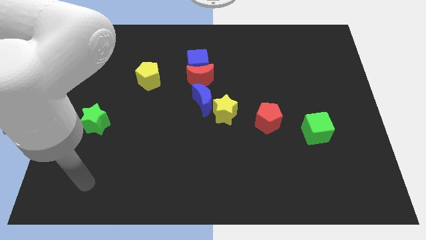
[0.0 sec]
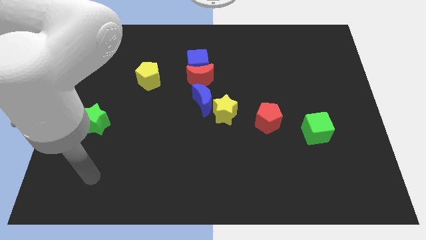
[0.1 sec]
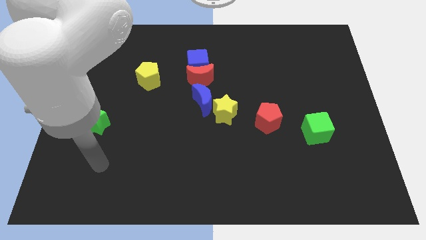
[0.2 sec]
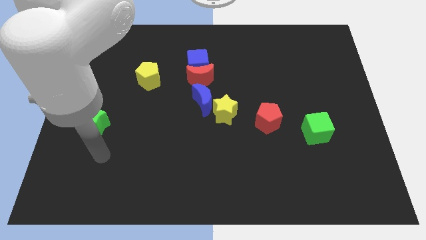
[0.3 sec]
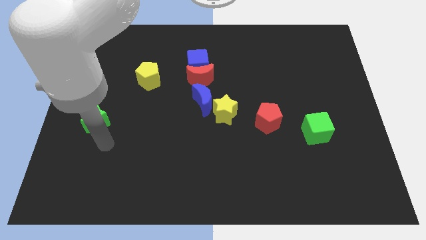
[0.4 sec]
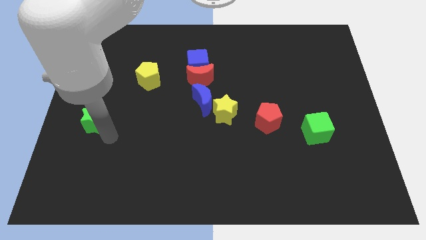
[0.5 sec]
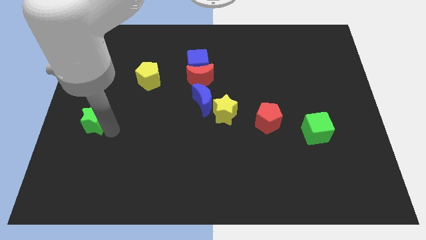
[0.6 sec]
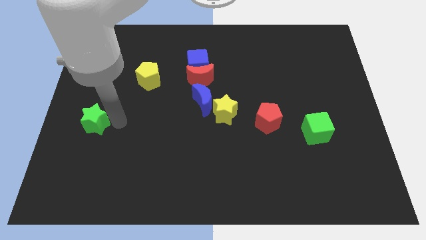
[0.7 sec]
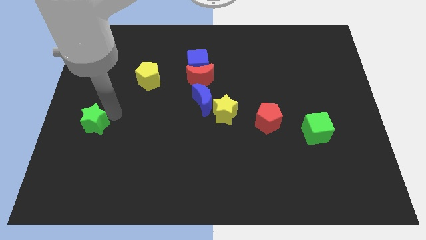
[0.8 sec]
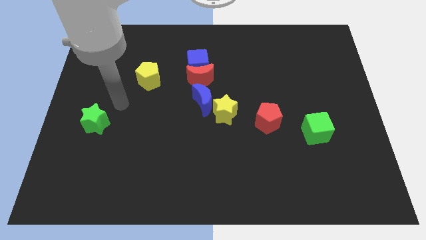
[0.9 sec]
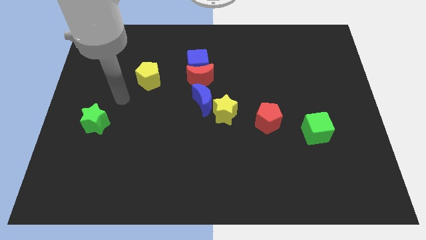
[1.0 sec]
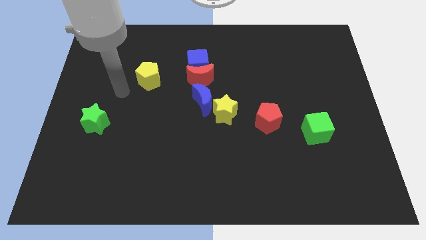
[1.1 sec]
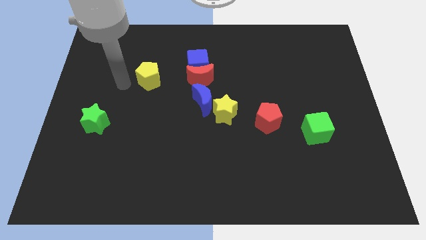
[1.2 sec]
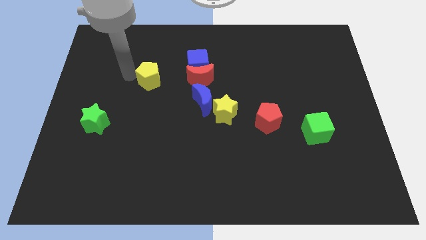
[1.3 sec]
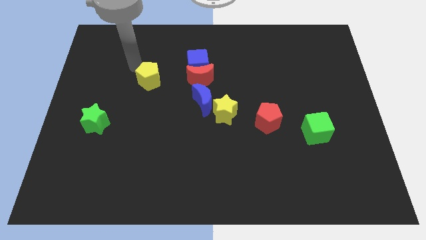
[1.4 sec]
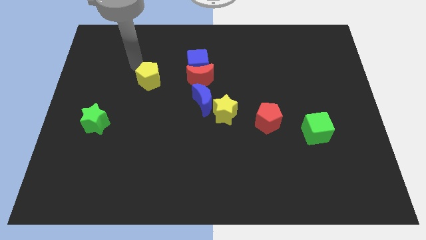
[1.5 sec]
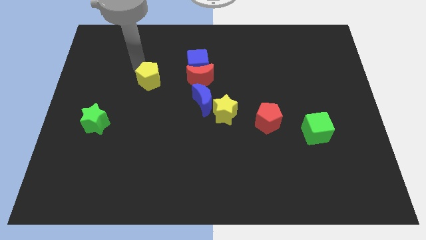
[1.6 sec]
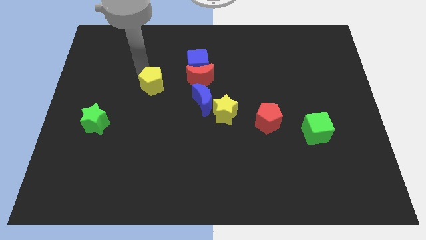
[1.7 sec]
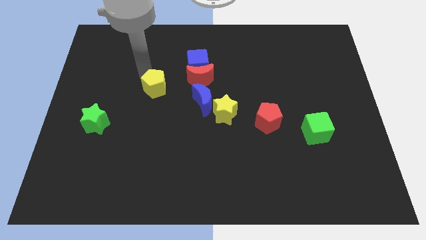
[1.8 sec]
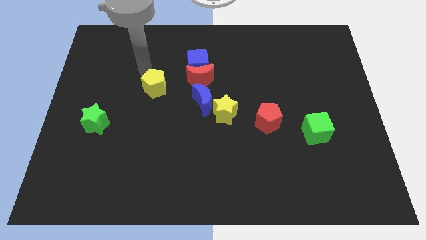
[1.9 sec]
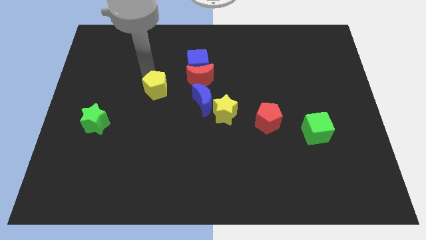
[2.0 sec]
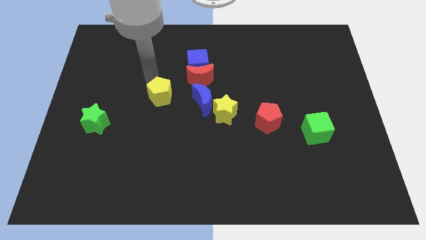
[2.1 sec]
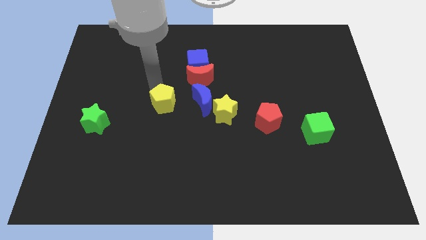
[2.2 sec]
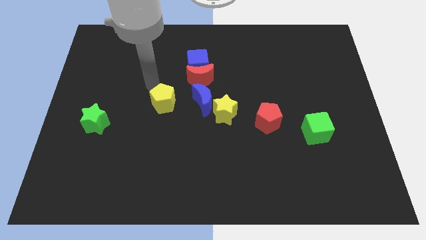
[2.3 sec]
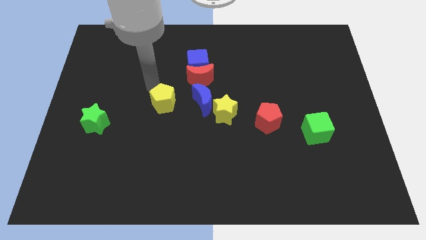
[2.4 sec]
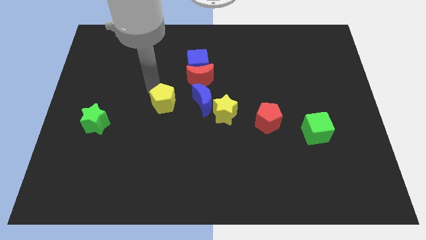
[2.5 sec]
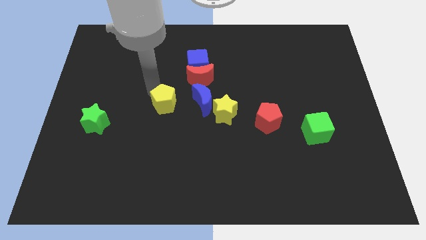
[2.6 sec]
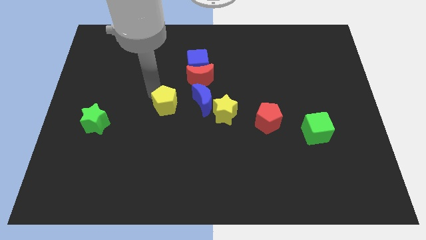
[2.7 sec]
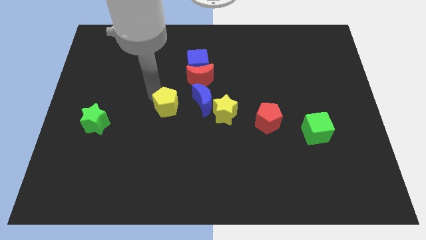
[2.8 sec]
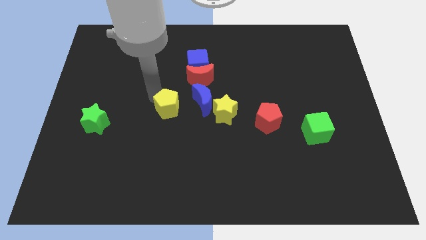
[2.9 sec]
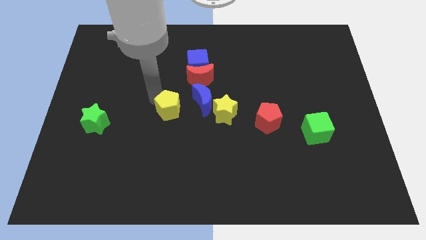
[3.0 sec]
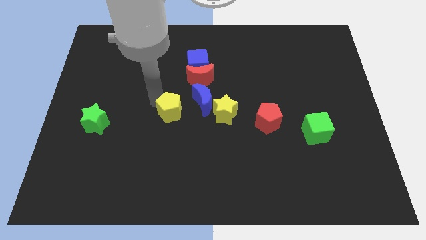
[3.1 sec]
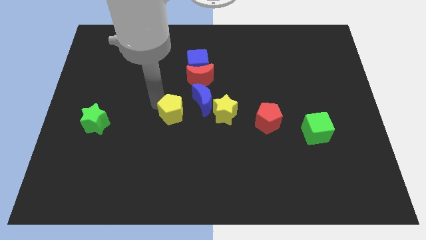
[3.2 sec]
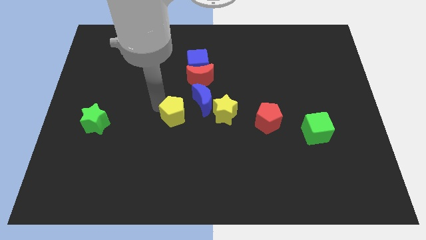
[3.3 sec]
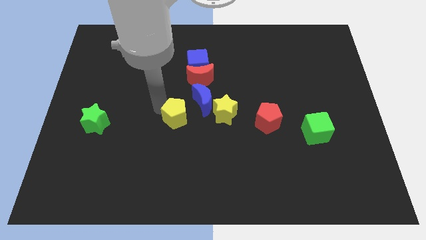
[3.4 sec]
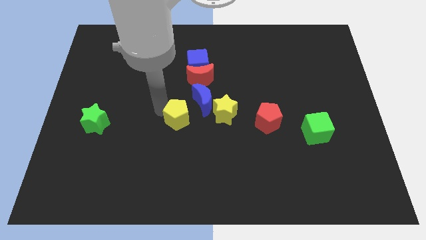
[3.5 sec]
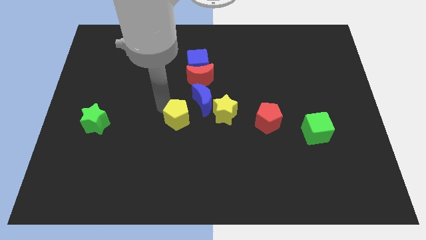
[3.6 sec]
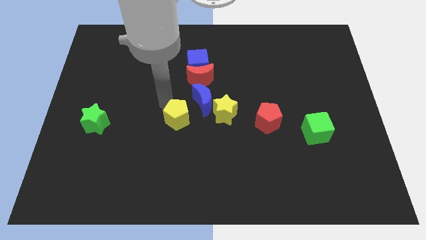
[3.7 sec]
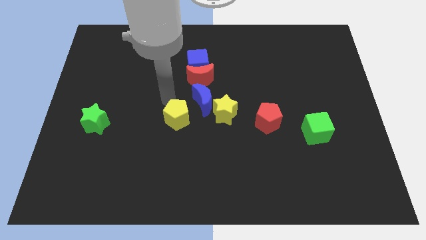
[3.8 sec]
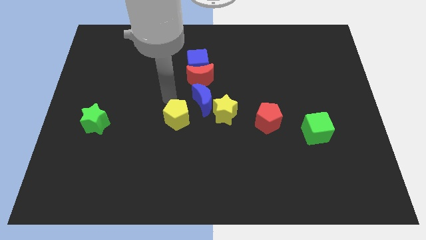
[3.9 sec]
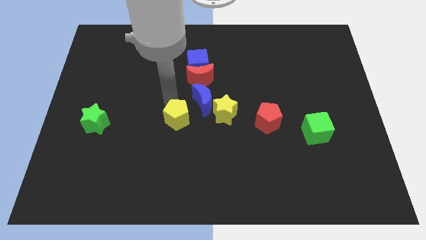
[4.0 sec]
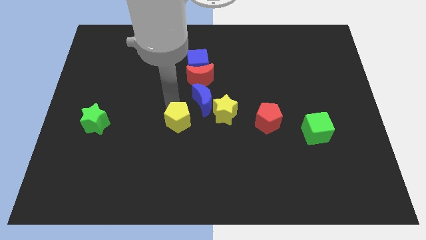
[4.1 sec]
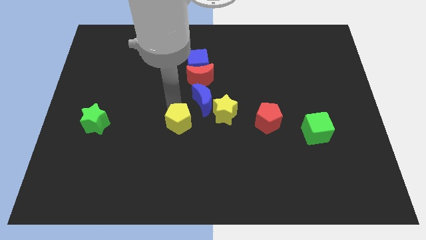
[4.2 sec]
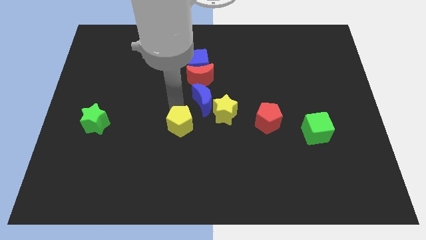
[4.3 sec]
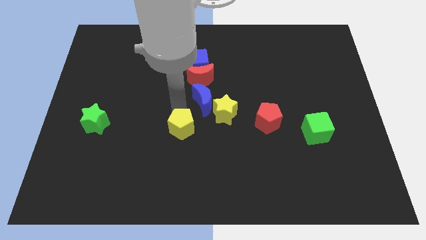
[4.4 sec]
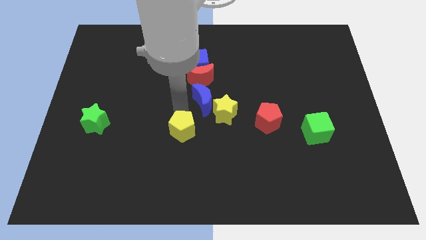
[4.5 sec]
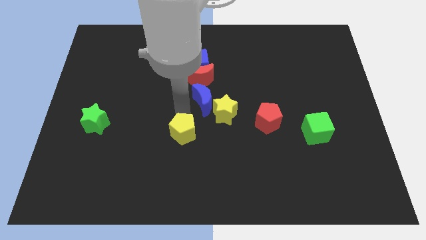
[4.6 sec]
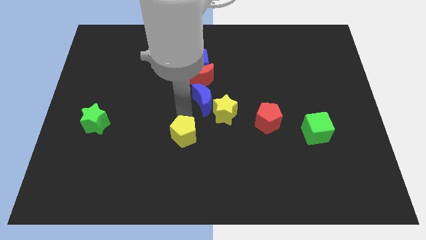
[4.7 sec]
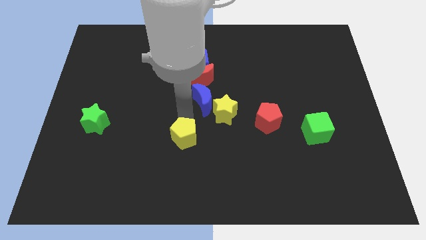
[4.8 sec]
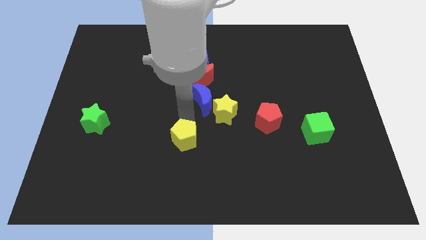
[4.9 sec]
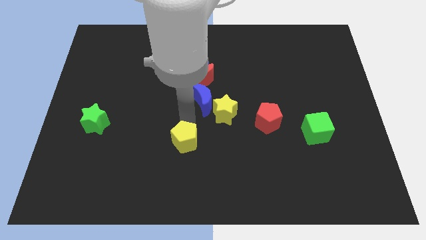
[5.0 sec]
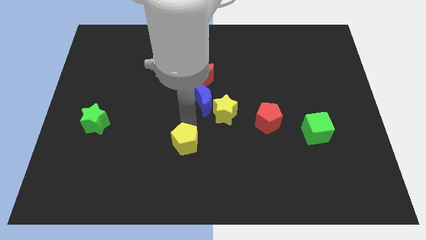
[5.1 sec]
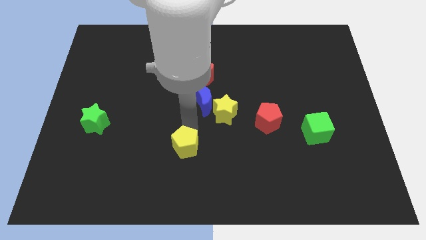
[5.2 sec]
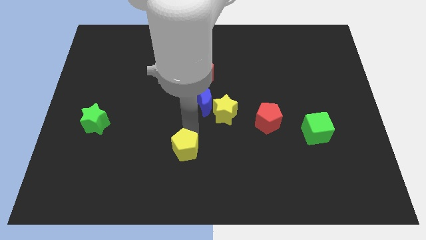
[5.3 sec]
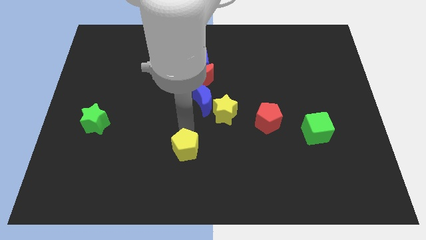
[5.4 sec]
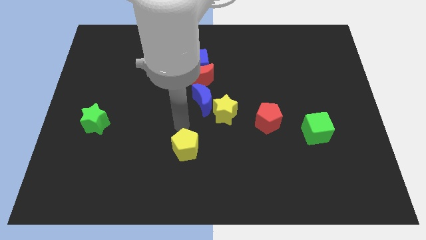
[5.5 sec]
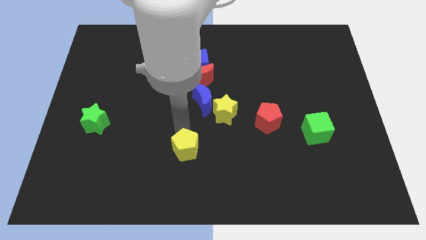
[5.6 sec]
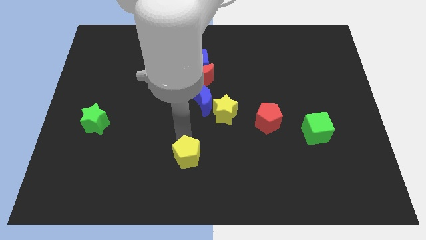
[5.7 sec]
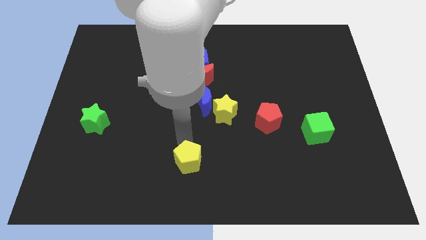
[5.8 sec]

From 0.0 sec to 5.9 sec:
put the yellow pentagon to the bottom side
